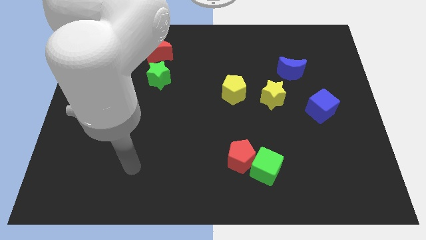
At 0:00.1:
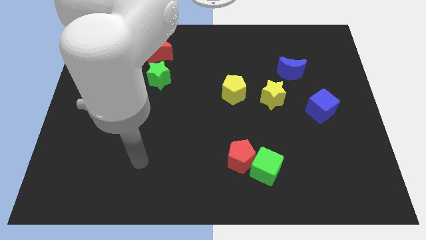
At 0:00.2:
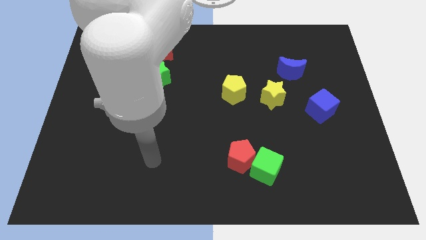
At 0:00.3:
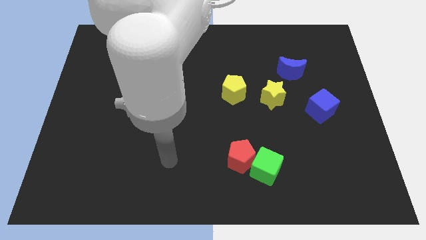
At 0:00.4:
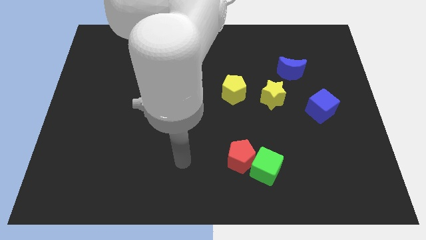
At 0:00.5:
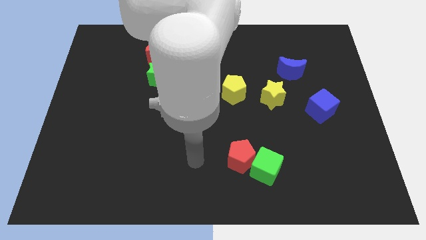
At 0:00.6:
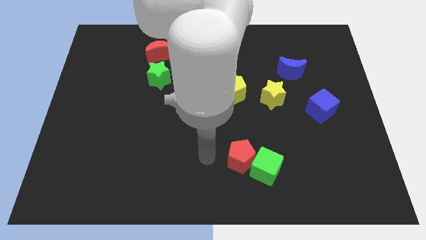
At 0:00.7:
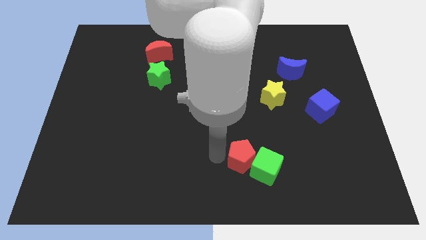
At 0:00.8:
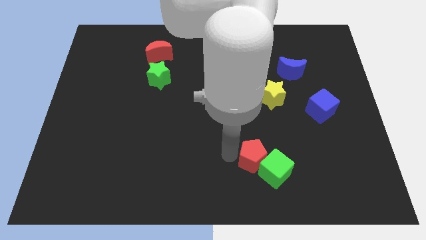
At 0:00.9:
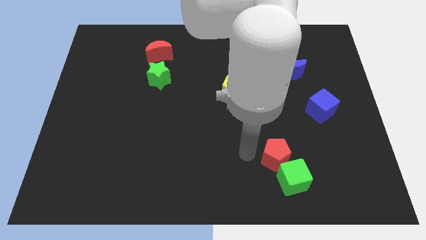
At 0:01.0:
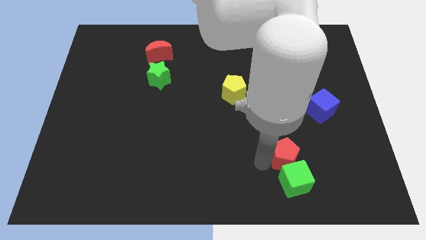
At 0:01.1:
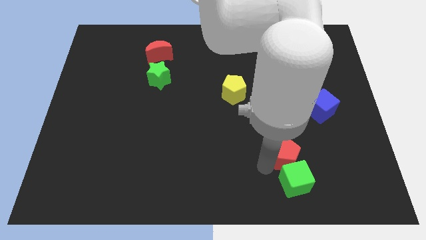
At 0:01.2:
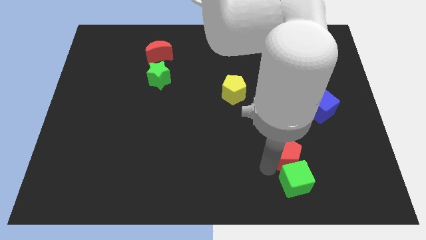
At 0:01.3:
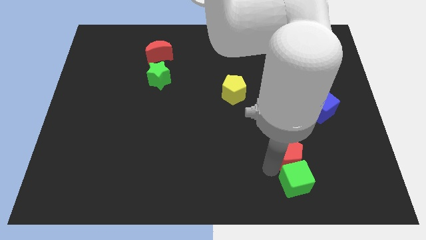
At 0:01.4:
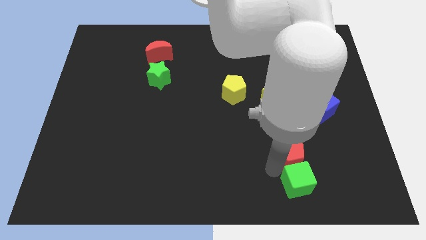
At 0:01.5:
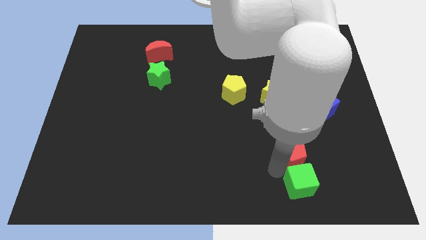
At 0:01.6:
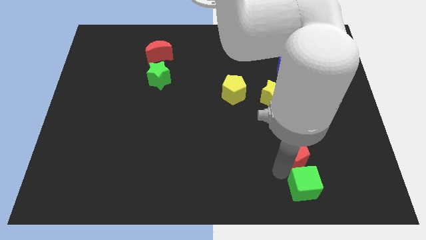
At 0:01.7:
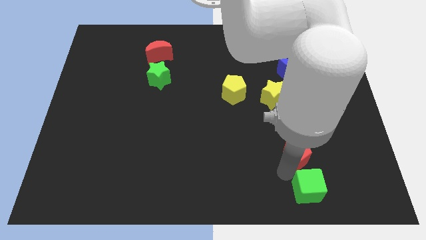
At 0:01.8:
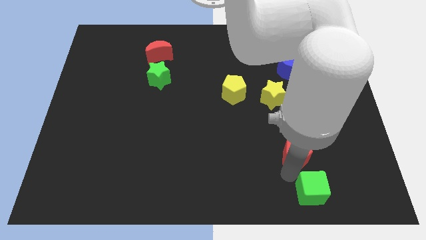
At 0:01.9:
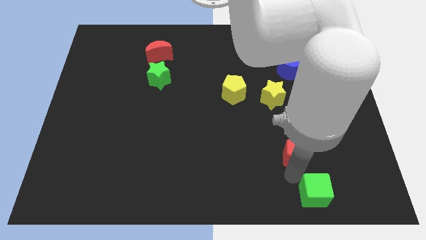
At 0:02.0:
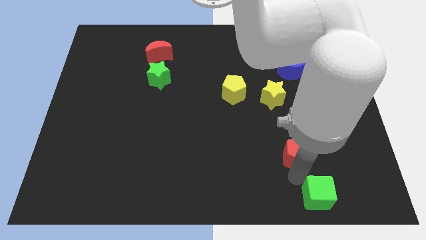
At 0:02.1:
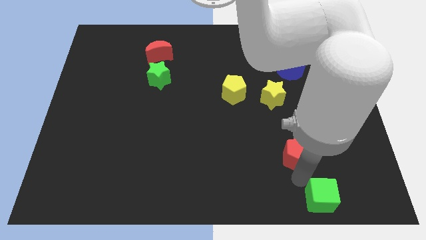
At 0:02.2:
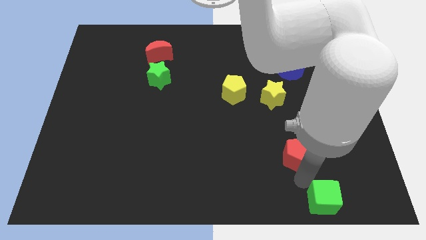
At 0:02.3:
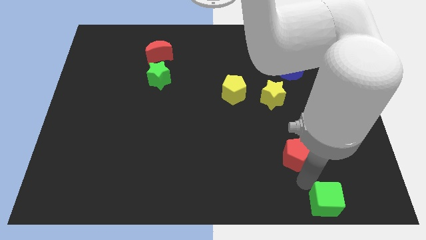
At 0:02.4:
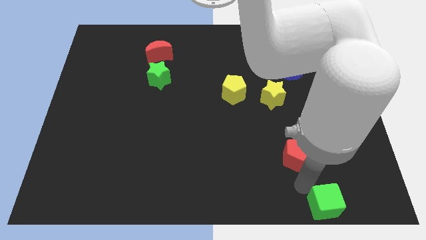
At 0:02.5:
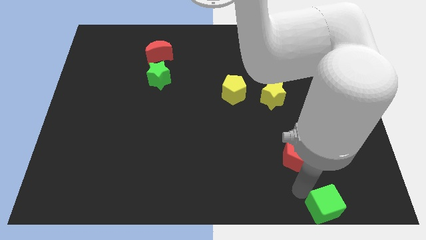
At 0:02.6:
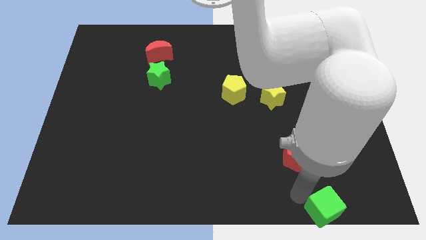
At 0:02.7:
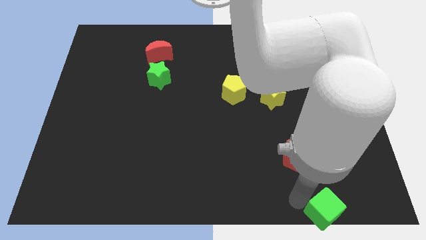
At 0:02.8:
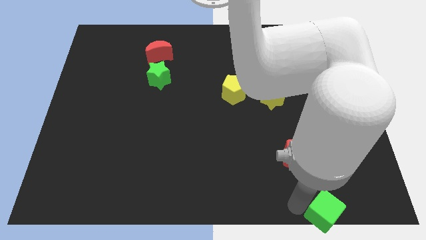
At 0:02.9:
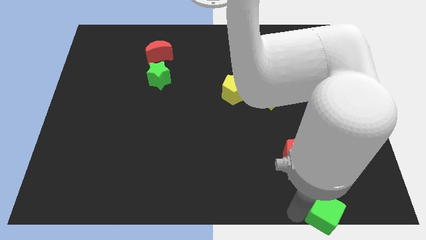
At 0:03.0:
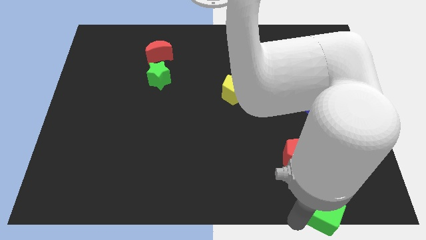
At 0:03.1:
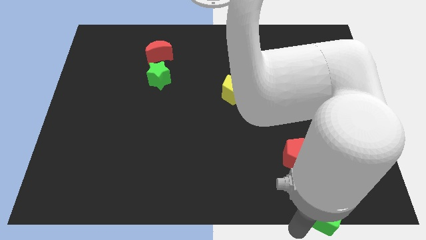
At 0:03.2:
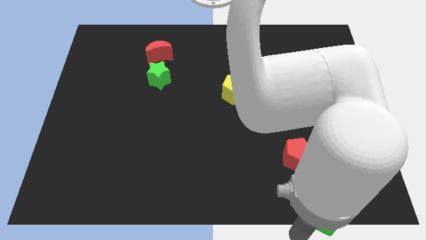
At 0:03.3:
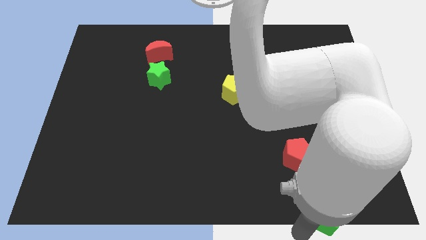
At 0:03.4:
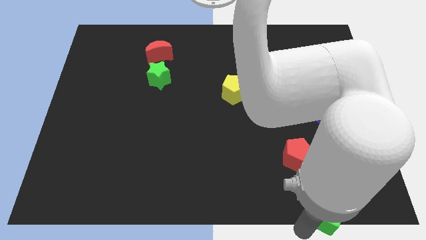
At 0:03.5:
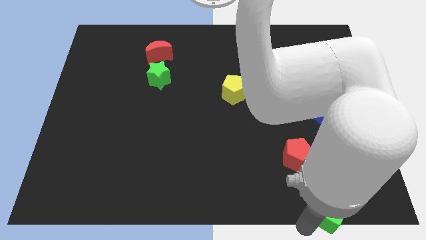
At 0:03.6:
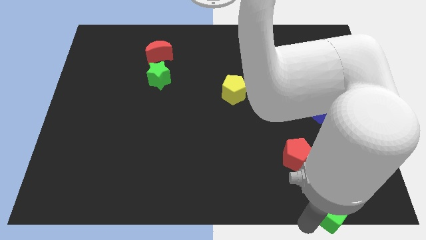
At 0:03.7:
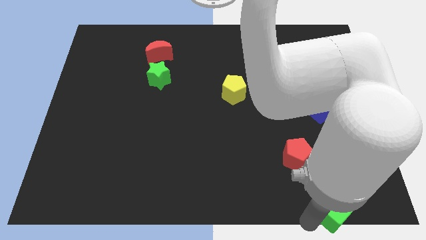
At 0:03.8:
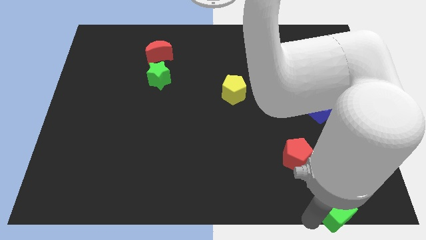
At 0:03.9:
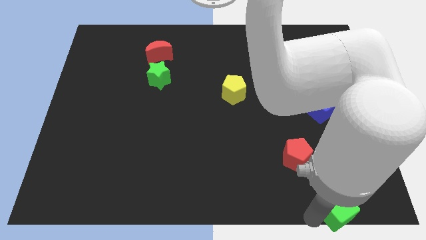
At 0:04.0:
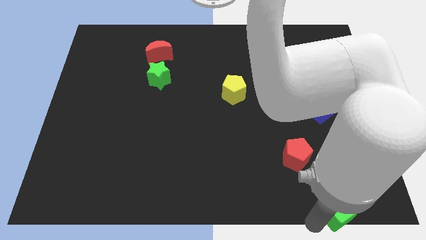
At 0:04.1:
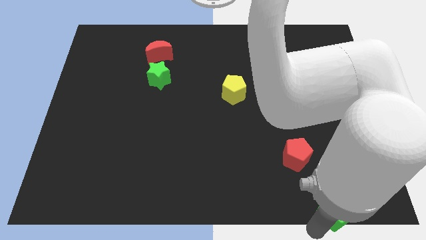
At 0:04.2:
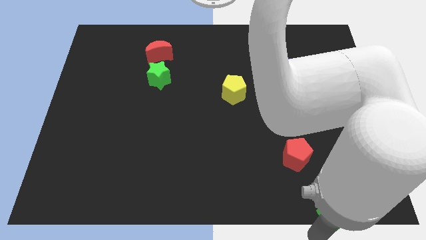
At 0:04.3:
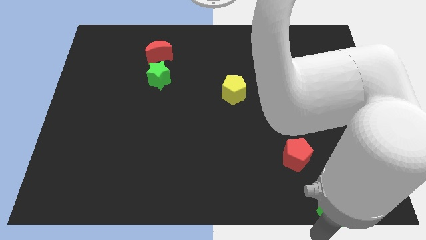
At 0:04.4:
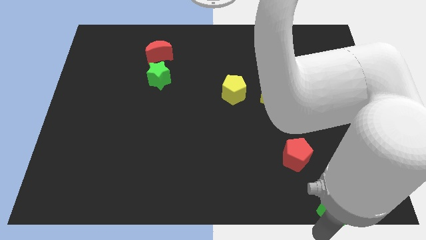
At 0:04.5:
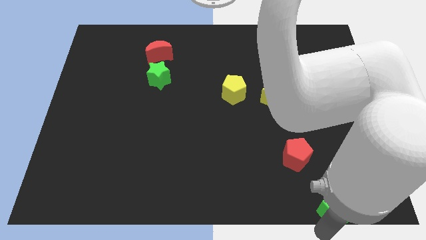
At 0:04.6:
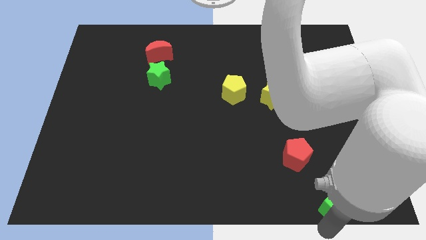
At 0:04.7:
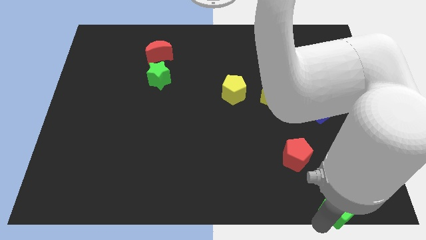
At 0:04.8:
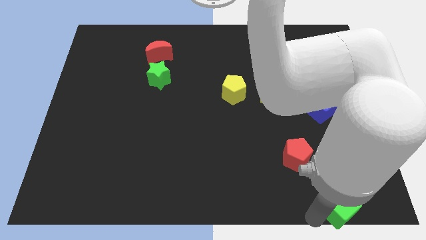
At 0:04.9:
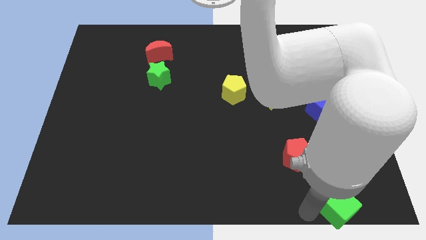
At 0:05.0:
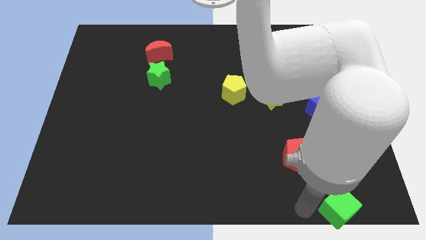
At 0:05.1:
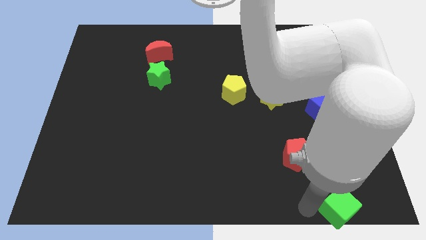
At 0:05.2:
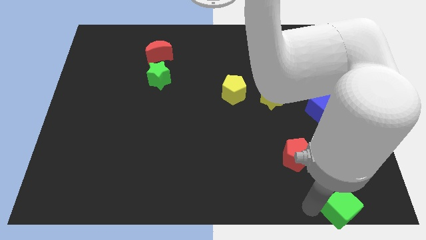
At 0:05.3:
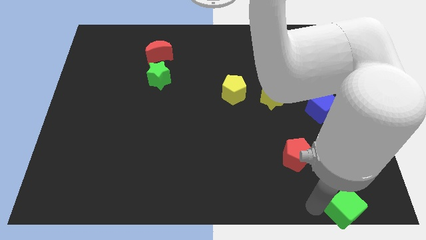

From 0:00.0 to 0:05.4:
move the green cube to the bottom right corner

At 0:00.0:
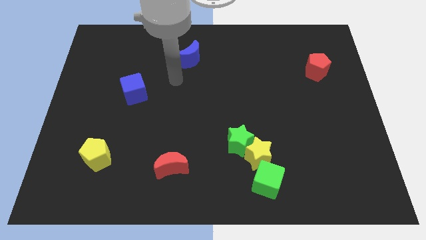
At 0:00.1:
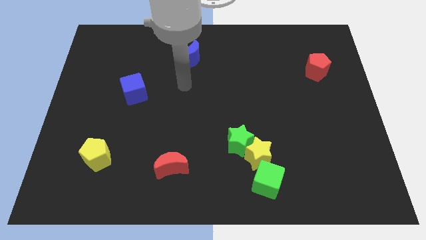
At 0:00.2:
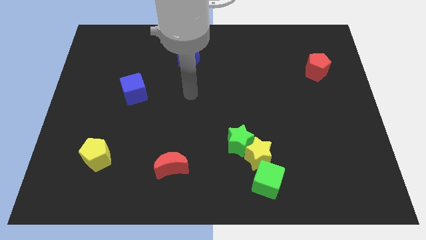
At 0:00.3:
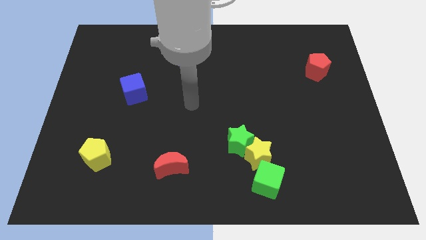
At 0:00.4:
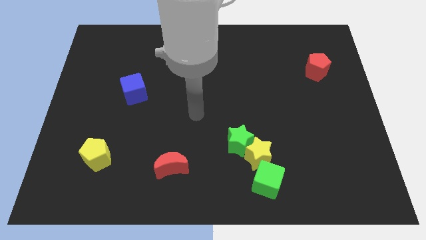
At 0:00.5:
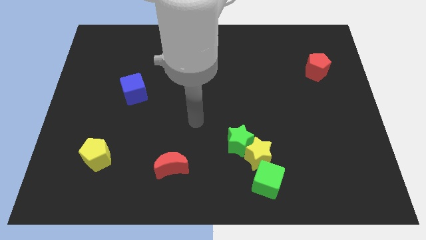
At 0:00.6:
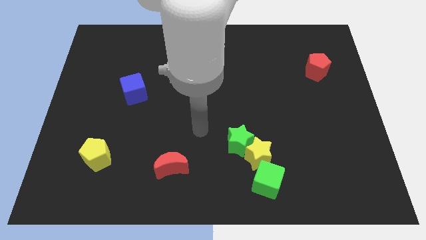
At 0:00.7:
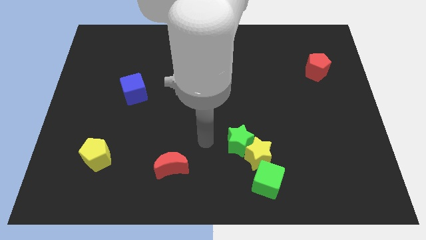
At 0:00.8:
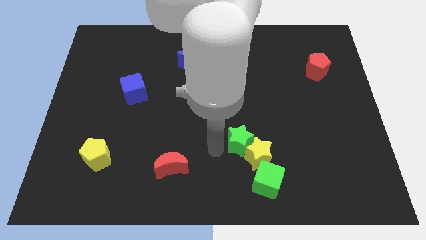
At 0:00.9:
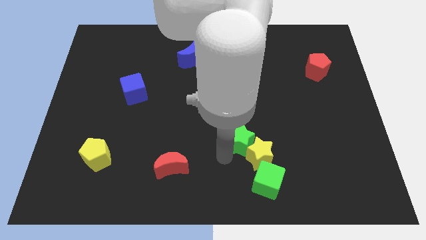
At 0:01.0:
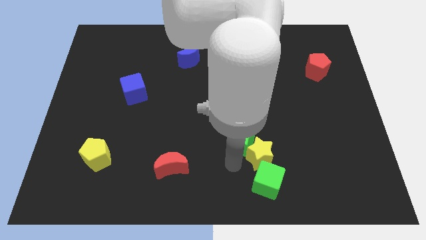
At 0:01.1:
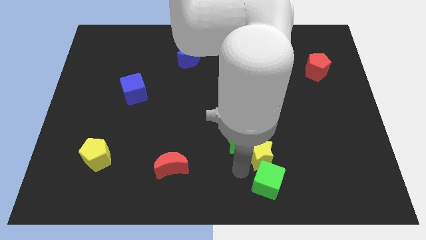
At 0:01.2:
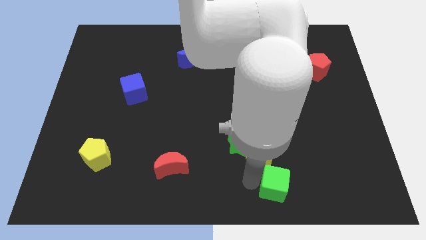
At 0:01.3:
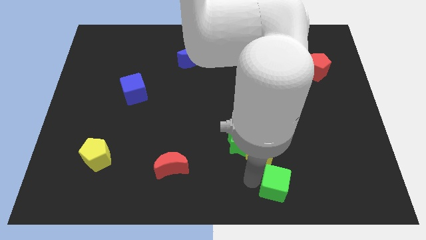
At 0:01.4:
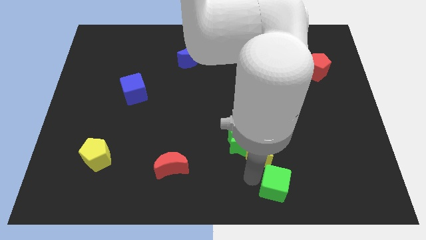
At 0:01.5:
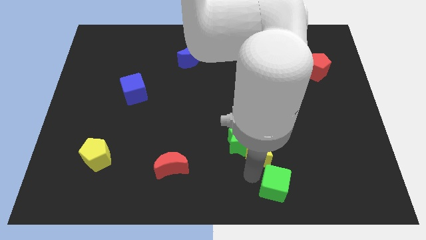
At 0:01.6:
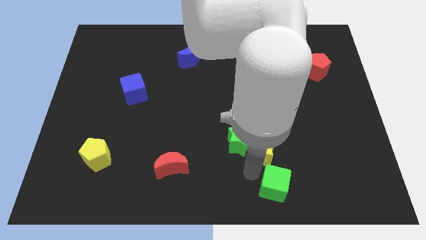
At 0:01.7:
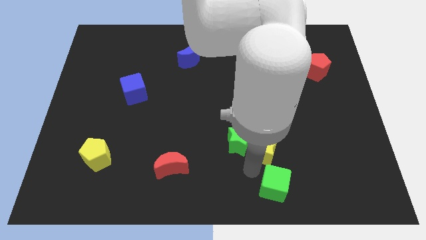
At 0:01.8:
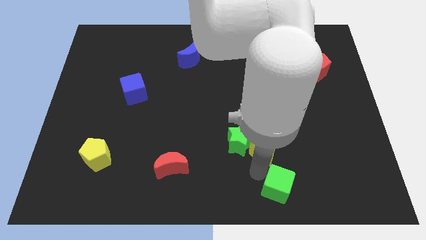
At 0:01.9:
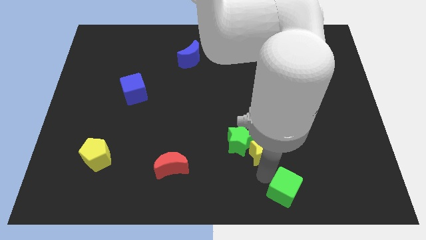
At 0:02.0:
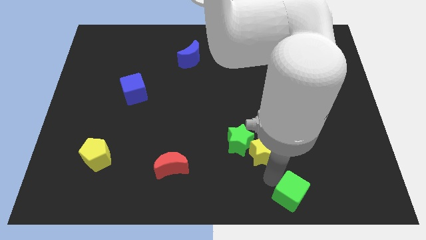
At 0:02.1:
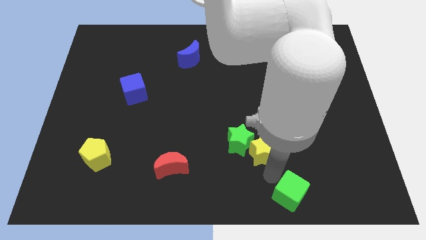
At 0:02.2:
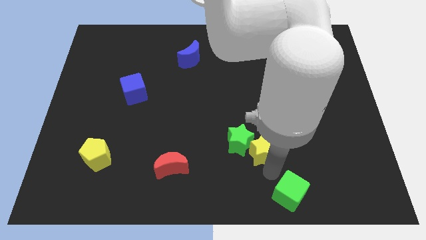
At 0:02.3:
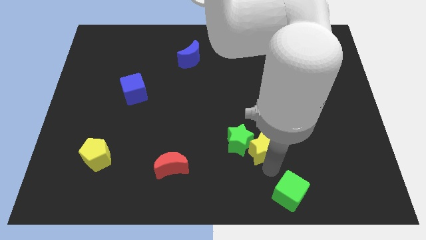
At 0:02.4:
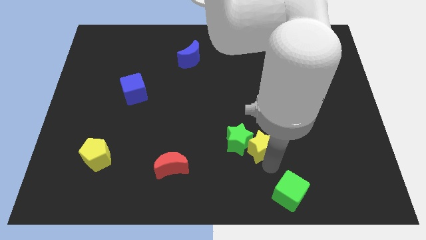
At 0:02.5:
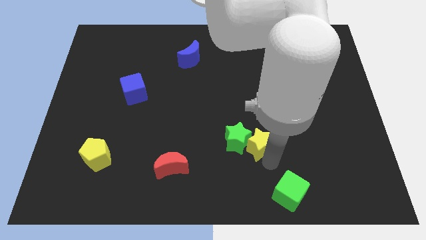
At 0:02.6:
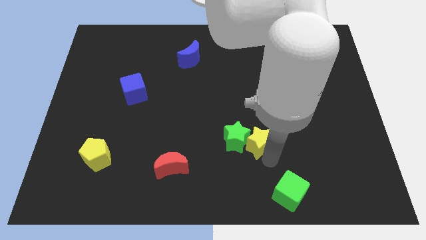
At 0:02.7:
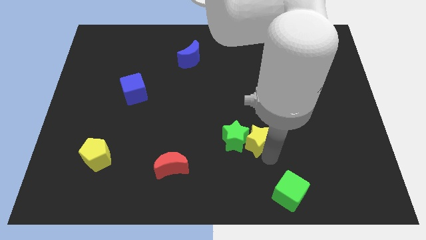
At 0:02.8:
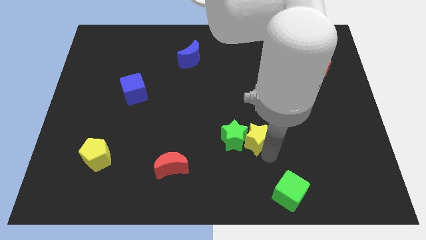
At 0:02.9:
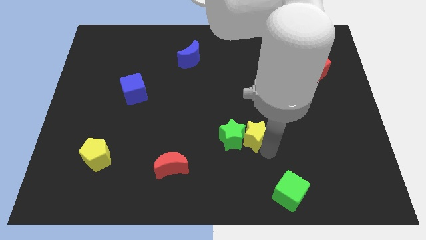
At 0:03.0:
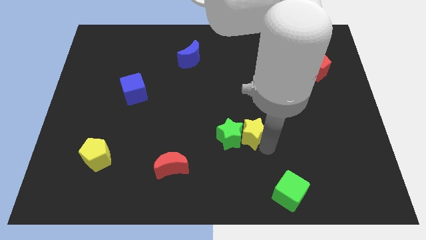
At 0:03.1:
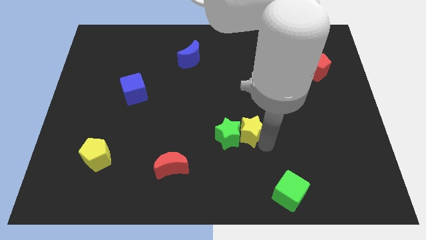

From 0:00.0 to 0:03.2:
move the yellow star to the center
